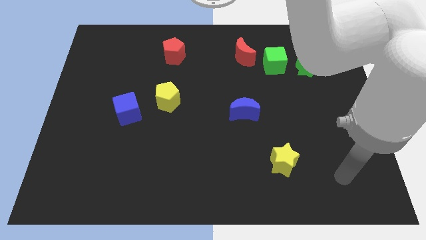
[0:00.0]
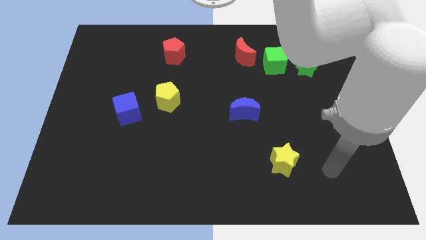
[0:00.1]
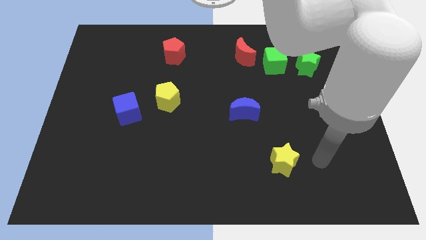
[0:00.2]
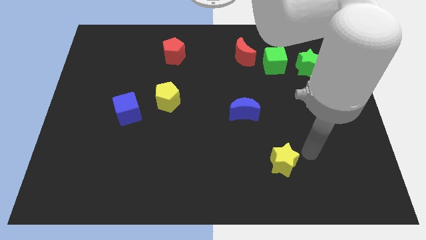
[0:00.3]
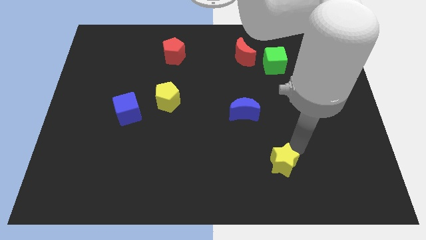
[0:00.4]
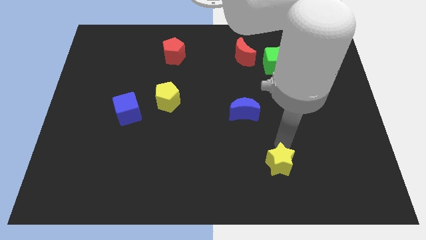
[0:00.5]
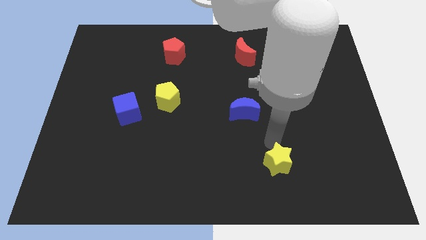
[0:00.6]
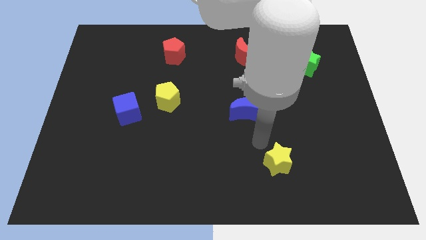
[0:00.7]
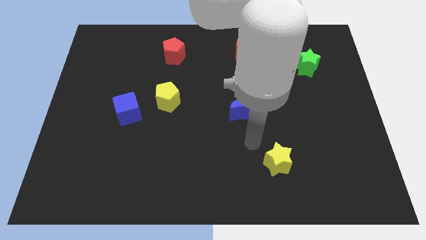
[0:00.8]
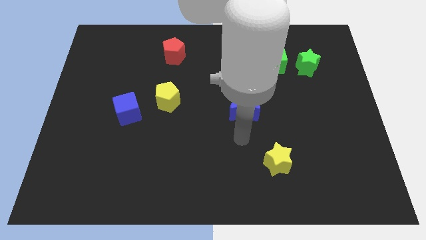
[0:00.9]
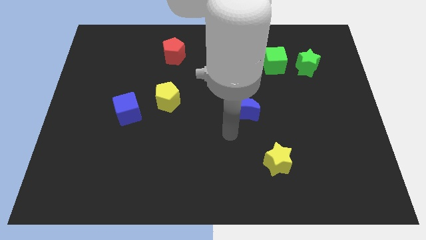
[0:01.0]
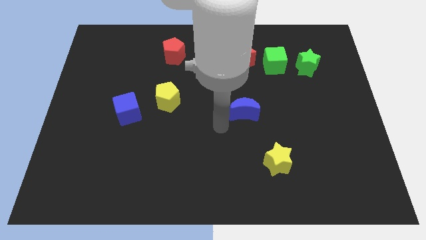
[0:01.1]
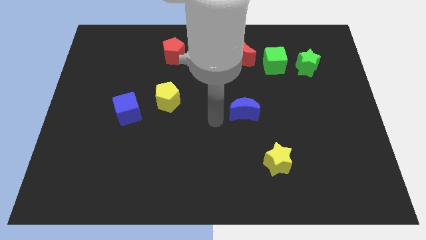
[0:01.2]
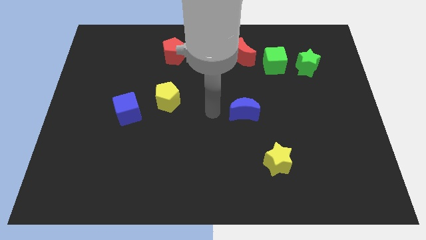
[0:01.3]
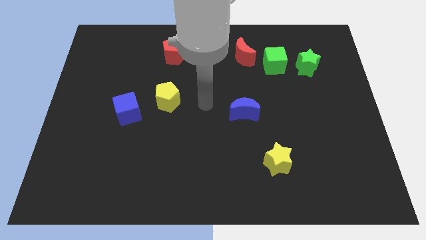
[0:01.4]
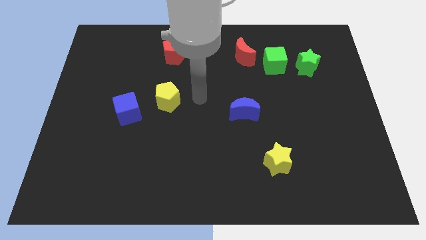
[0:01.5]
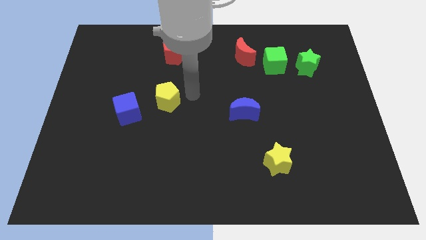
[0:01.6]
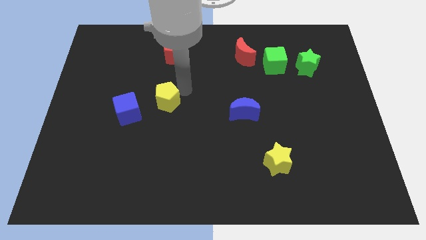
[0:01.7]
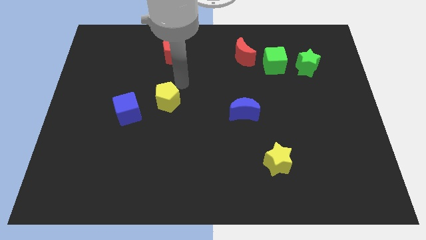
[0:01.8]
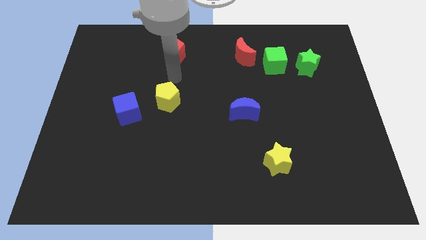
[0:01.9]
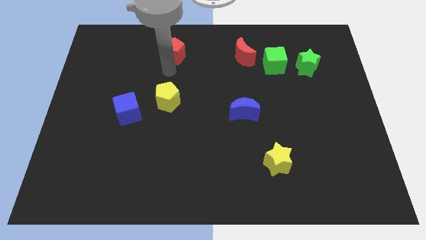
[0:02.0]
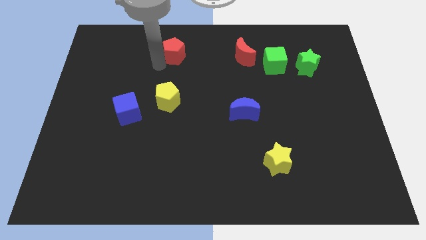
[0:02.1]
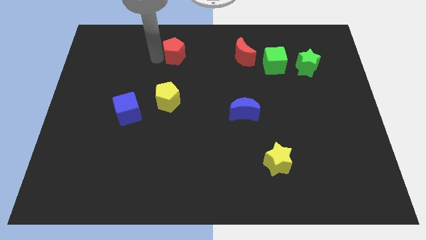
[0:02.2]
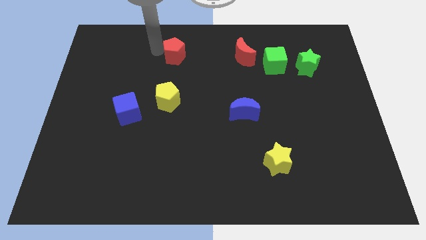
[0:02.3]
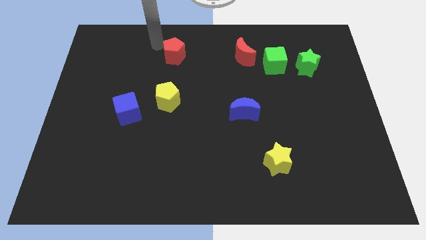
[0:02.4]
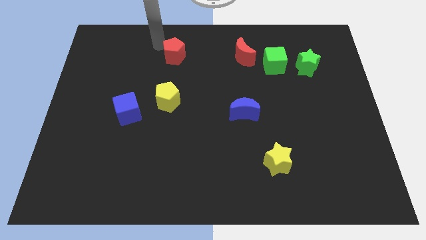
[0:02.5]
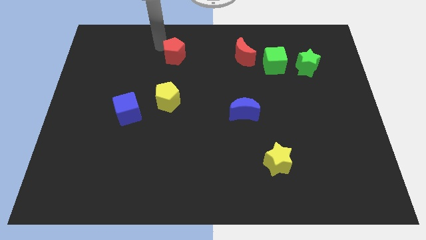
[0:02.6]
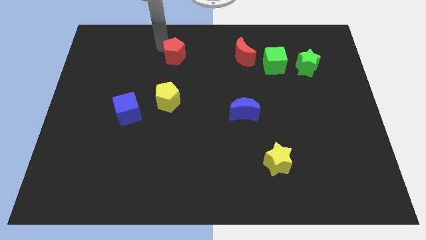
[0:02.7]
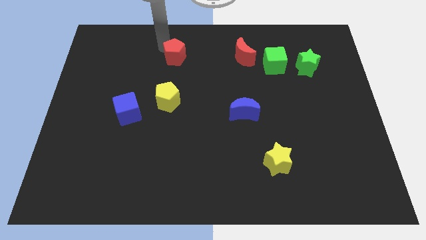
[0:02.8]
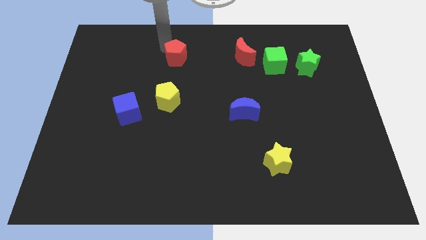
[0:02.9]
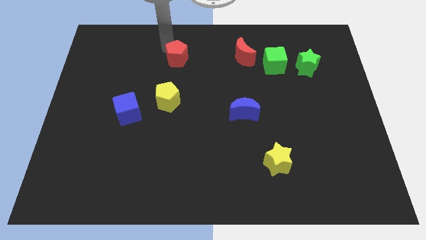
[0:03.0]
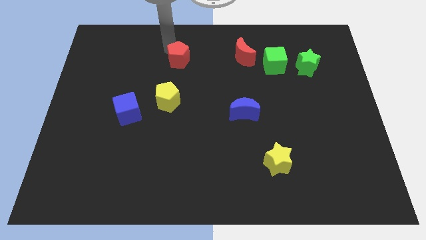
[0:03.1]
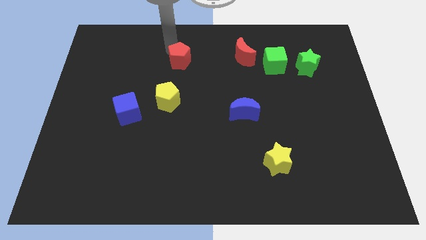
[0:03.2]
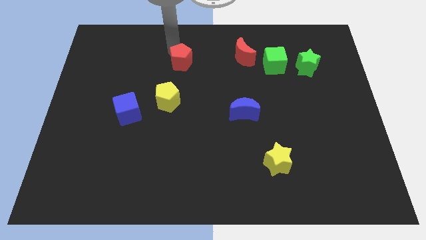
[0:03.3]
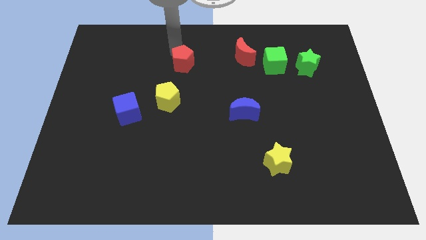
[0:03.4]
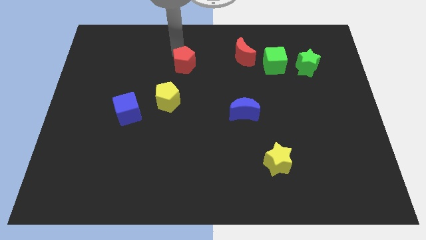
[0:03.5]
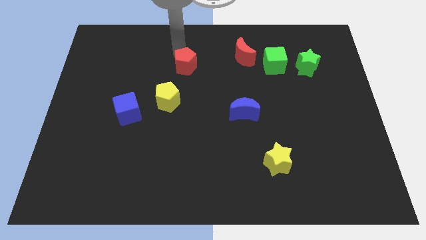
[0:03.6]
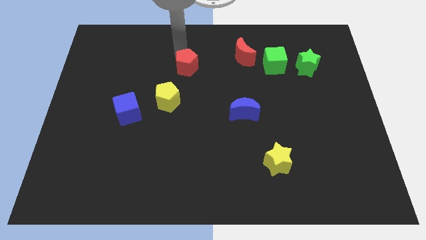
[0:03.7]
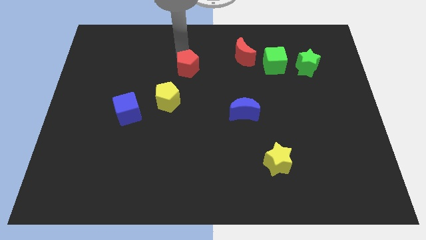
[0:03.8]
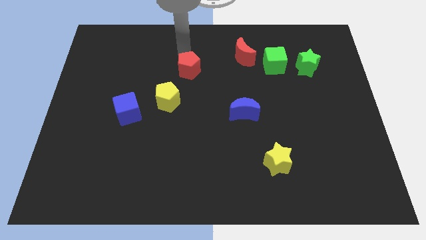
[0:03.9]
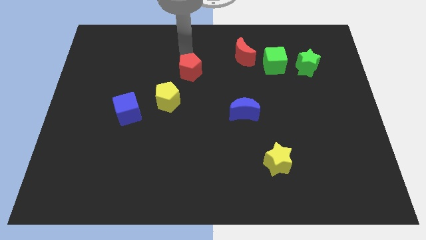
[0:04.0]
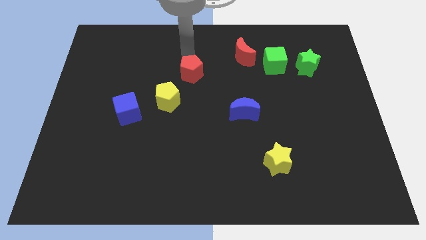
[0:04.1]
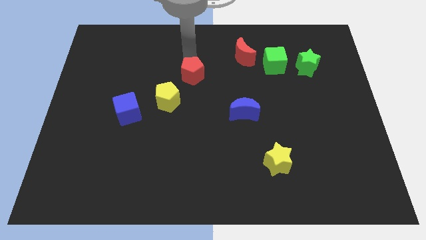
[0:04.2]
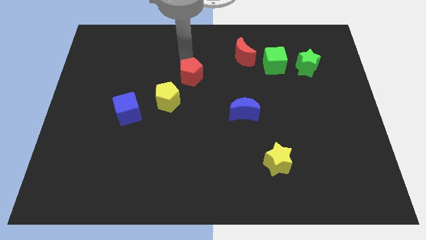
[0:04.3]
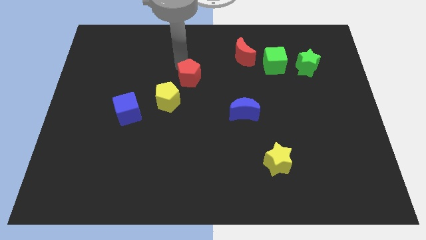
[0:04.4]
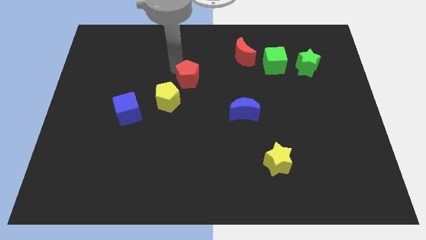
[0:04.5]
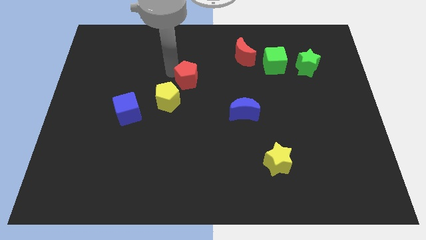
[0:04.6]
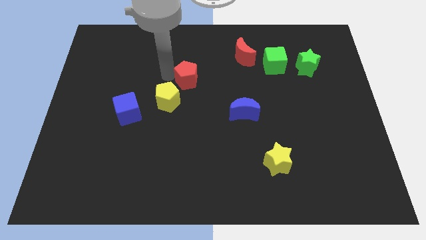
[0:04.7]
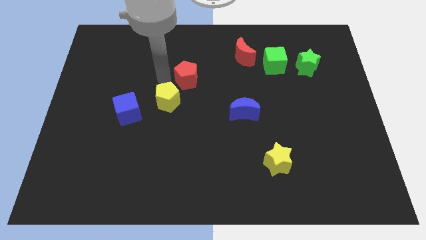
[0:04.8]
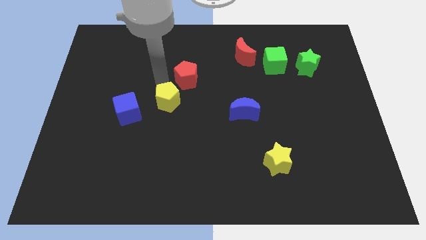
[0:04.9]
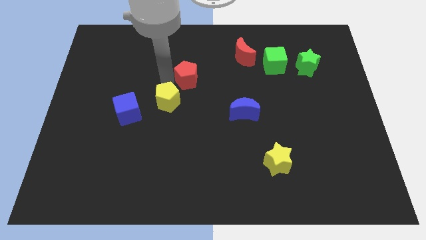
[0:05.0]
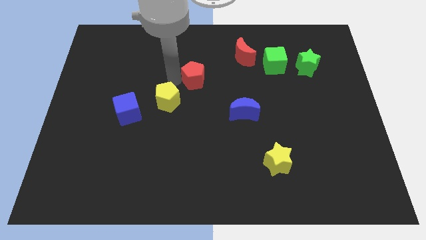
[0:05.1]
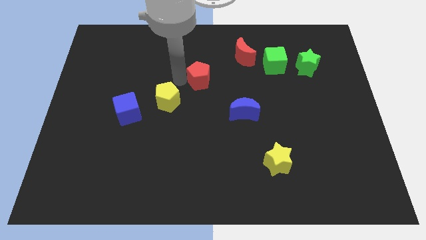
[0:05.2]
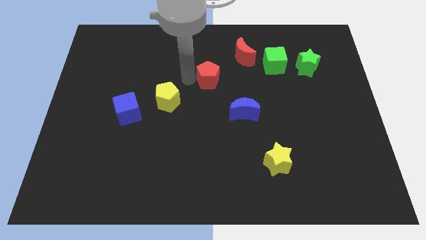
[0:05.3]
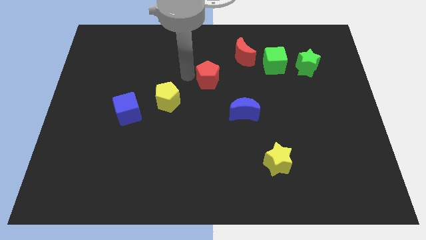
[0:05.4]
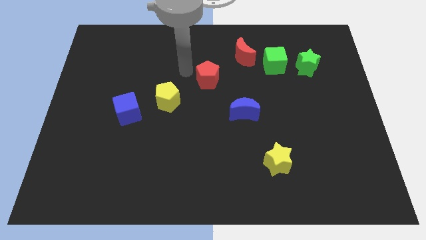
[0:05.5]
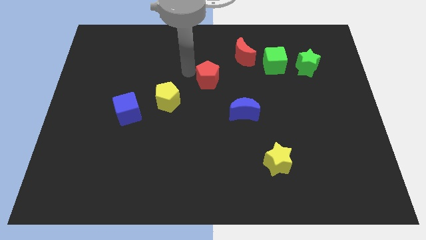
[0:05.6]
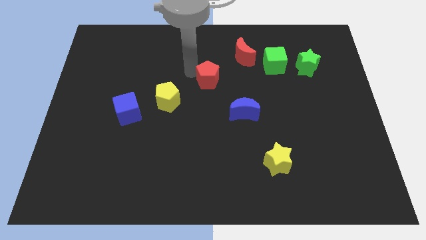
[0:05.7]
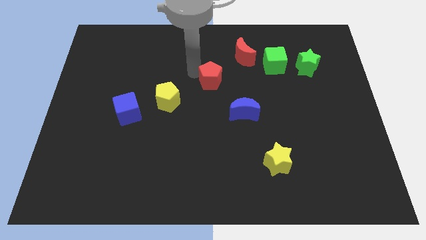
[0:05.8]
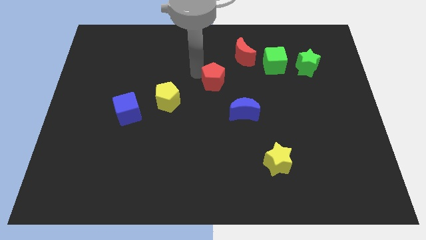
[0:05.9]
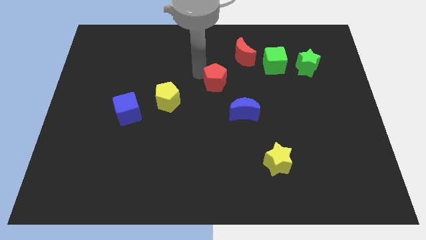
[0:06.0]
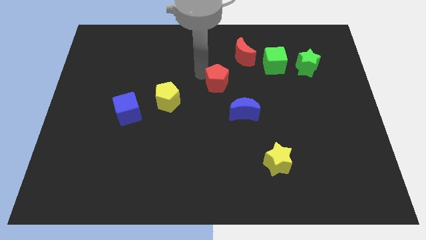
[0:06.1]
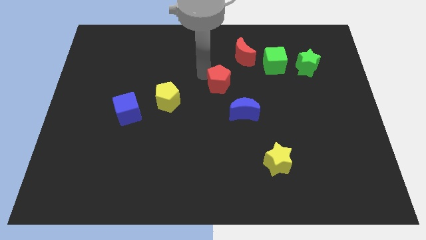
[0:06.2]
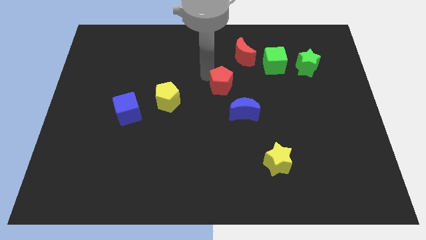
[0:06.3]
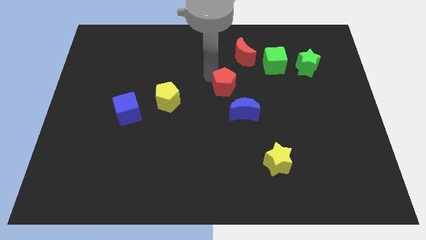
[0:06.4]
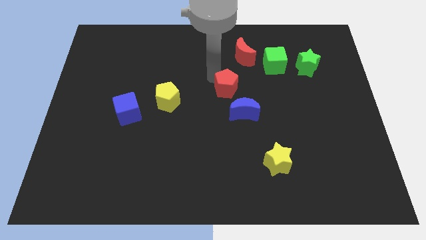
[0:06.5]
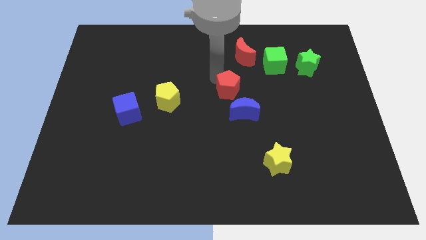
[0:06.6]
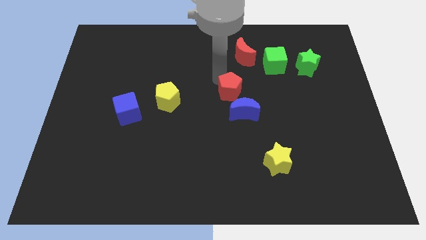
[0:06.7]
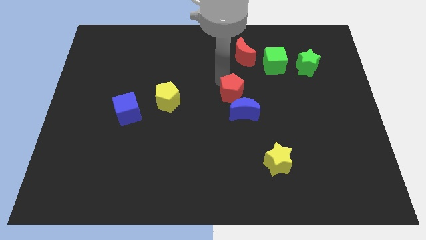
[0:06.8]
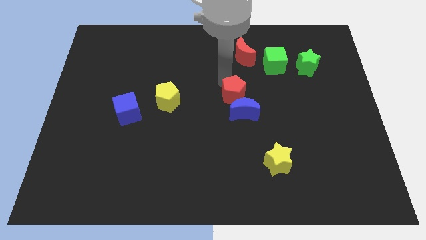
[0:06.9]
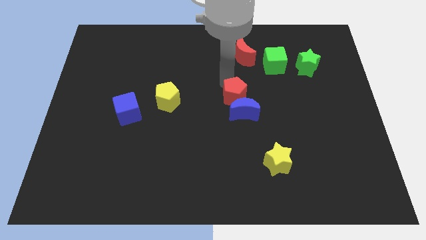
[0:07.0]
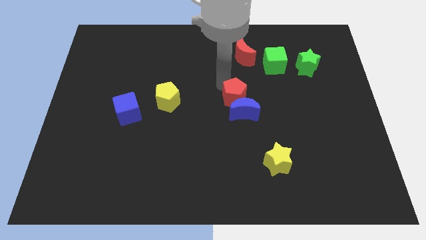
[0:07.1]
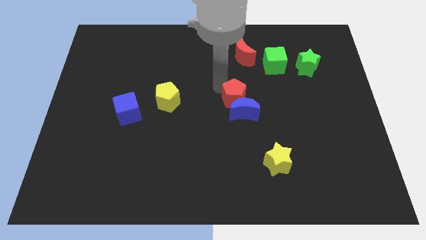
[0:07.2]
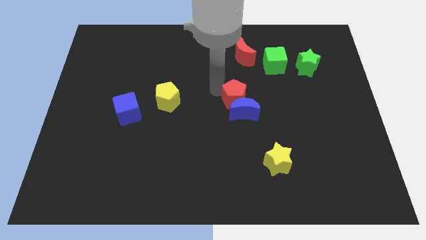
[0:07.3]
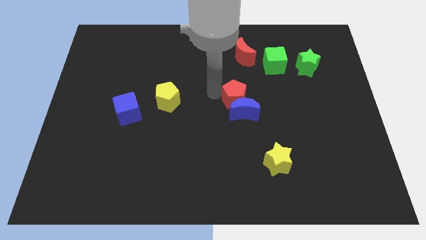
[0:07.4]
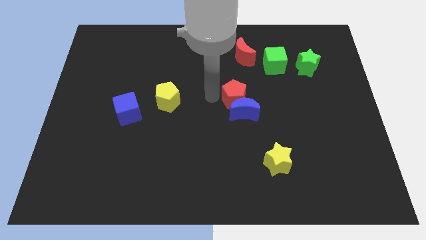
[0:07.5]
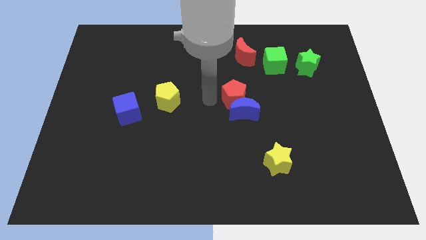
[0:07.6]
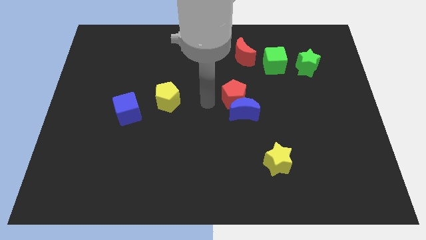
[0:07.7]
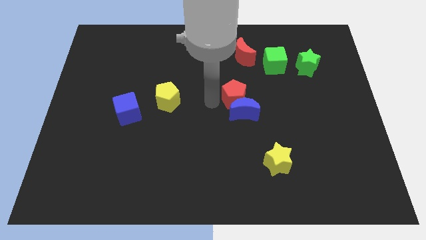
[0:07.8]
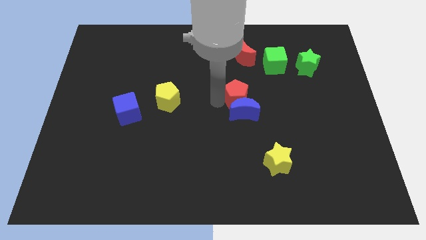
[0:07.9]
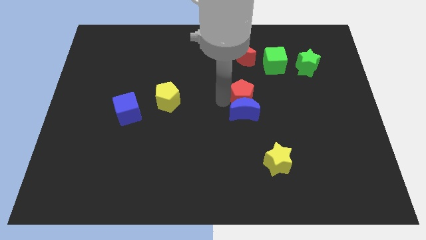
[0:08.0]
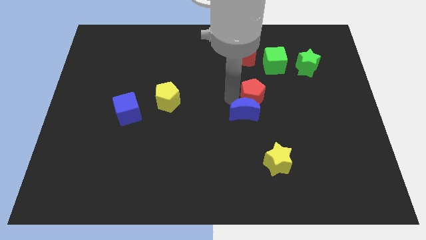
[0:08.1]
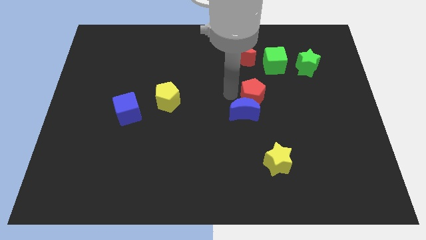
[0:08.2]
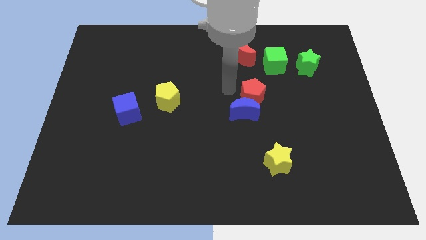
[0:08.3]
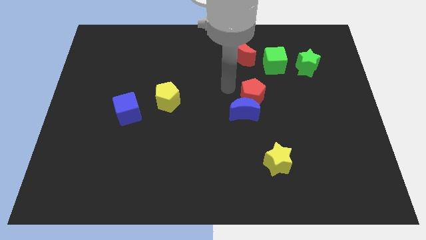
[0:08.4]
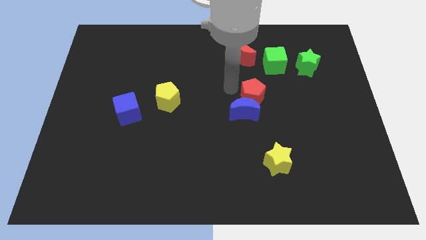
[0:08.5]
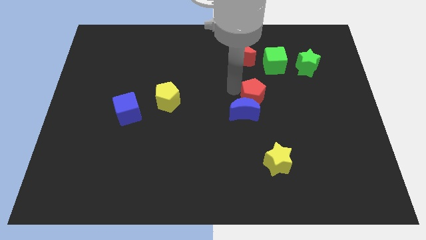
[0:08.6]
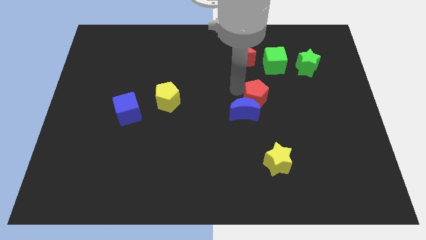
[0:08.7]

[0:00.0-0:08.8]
push the red pentagon to the right side of the blue moon
